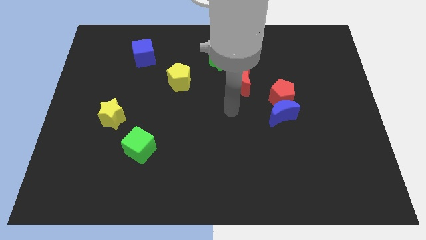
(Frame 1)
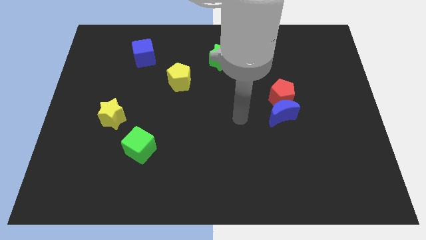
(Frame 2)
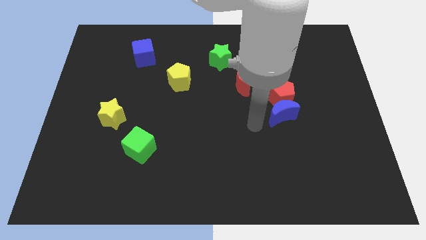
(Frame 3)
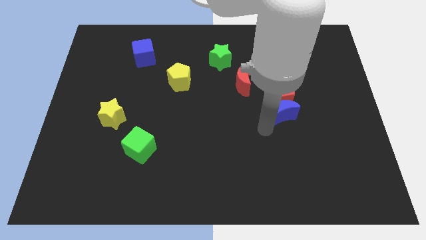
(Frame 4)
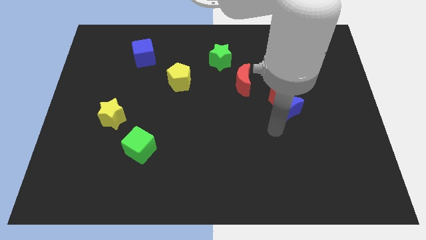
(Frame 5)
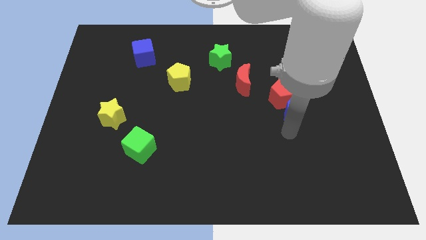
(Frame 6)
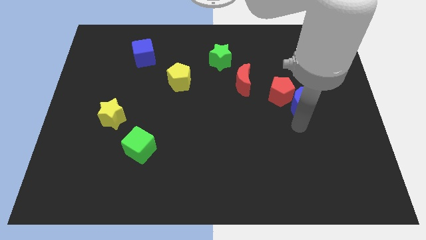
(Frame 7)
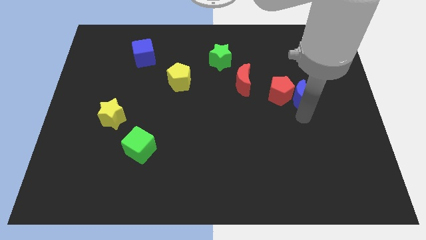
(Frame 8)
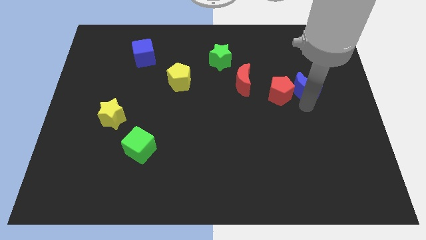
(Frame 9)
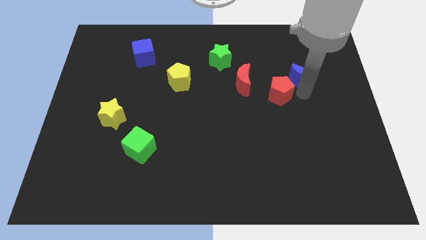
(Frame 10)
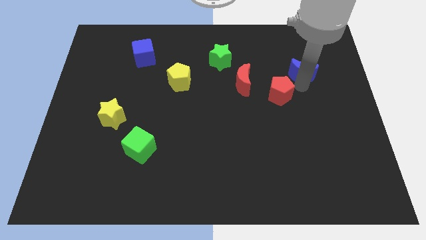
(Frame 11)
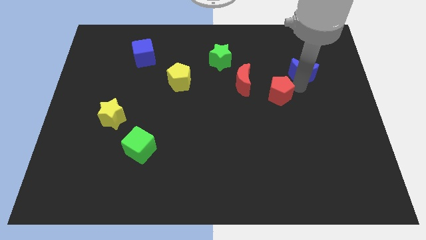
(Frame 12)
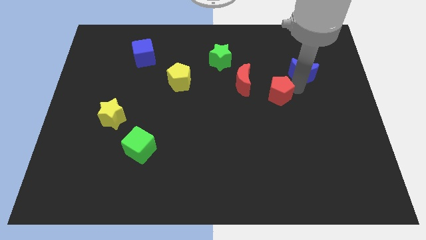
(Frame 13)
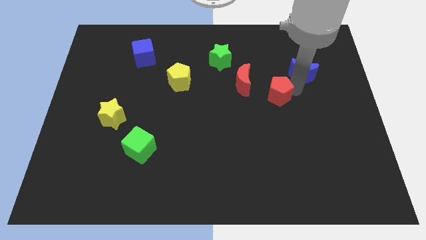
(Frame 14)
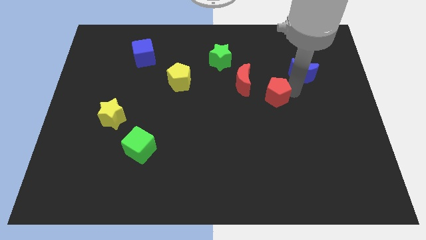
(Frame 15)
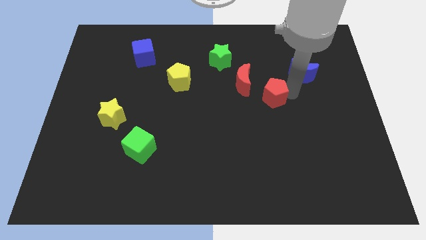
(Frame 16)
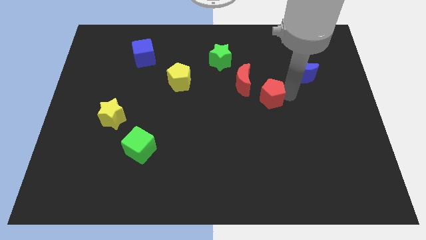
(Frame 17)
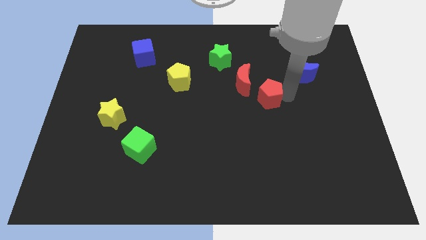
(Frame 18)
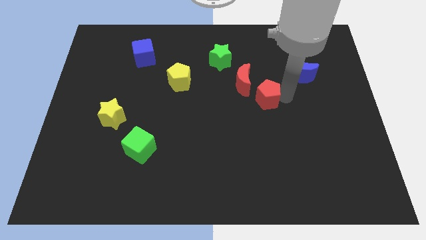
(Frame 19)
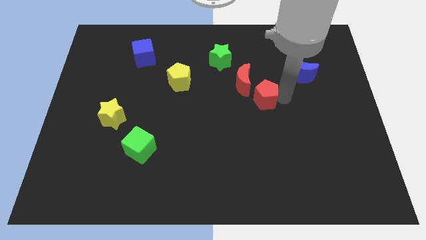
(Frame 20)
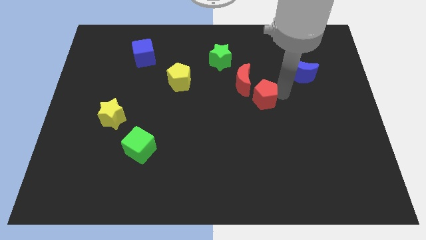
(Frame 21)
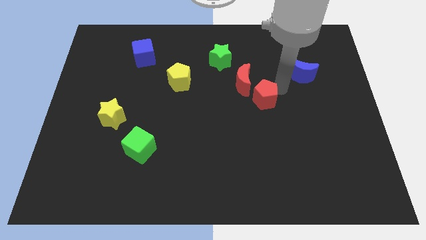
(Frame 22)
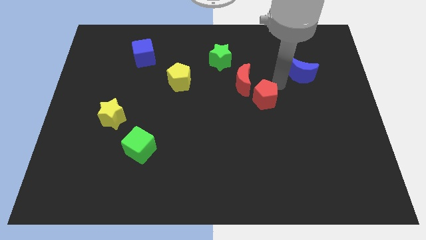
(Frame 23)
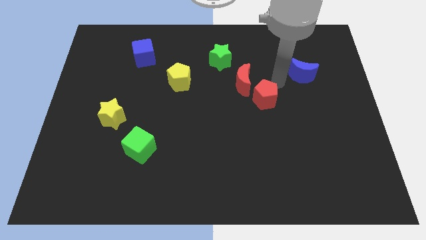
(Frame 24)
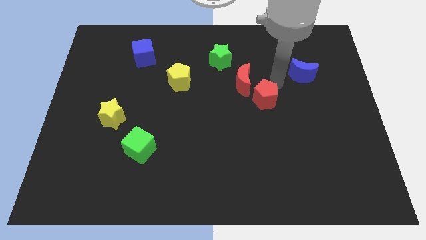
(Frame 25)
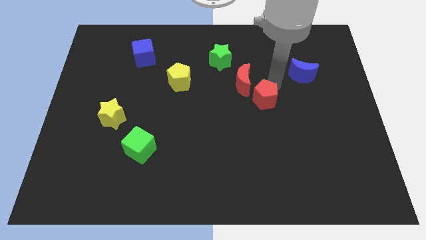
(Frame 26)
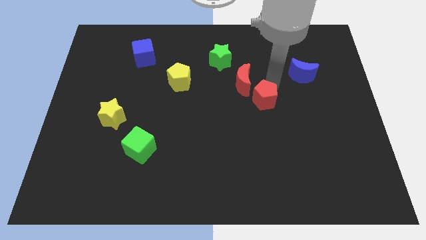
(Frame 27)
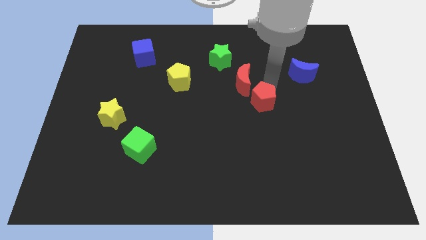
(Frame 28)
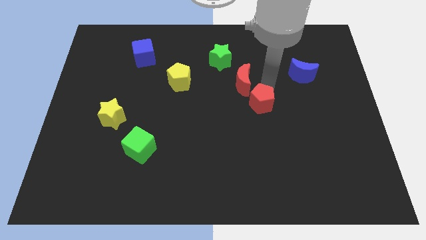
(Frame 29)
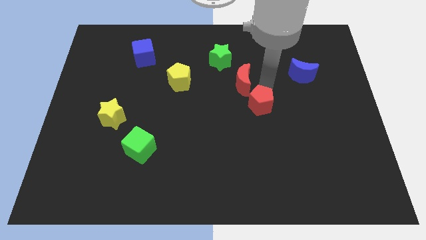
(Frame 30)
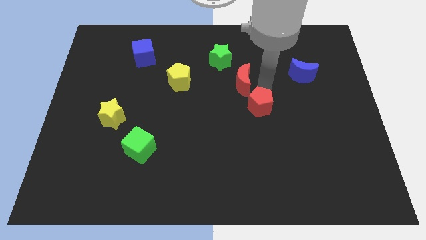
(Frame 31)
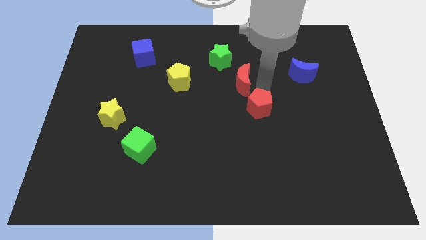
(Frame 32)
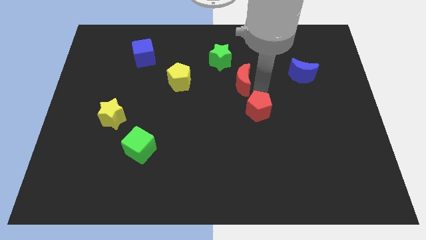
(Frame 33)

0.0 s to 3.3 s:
slide the red pentagon a little bit diagonally down and to the left

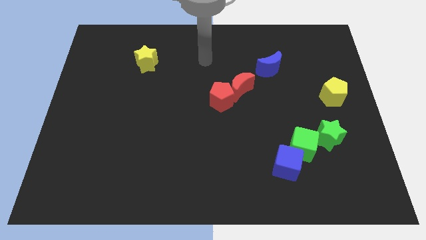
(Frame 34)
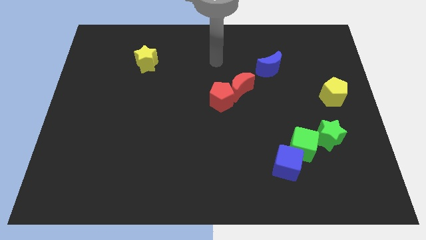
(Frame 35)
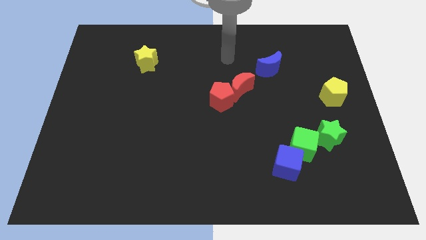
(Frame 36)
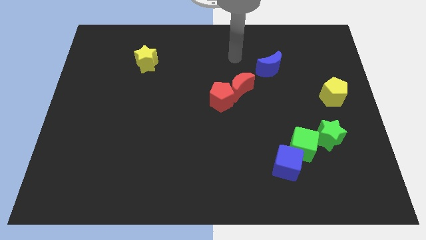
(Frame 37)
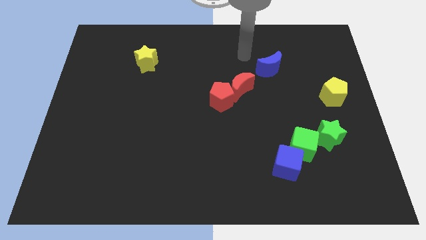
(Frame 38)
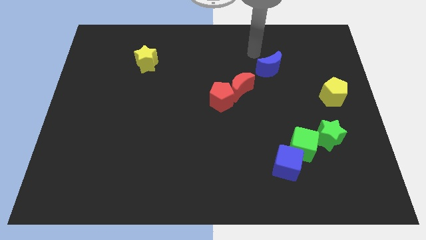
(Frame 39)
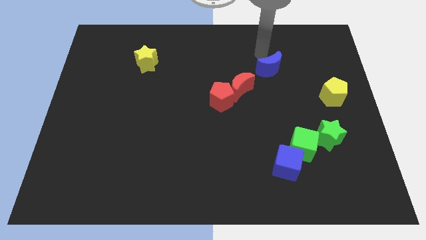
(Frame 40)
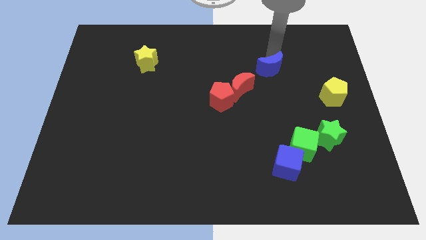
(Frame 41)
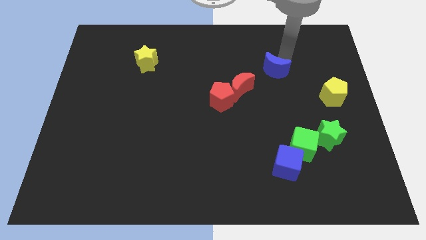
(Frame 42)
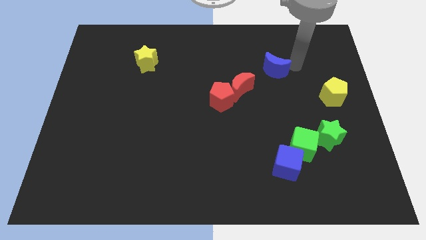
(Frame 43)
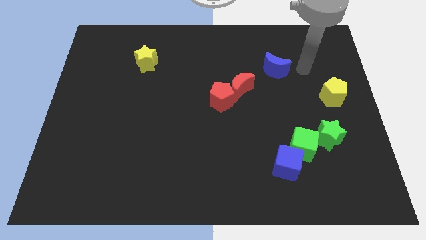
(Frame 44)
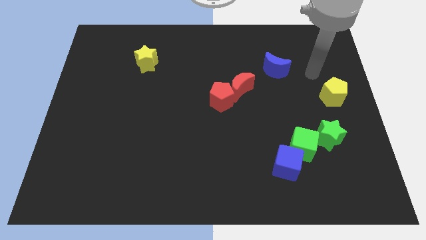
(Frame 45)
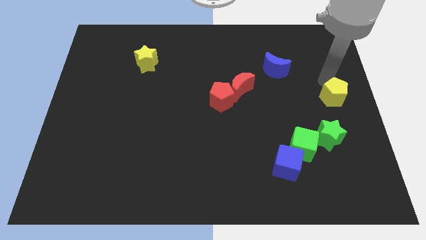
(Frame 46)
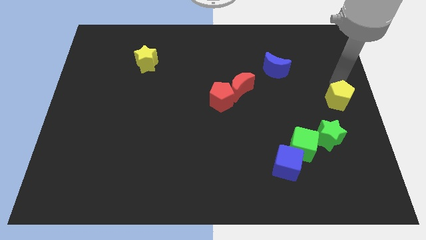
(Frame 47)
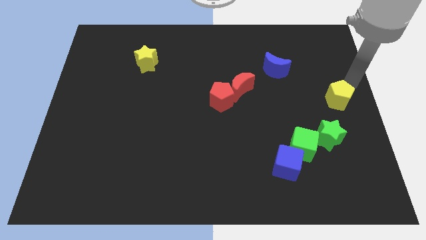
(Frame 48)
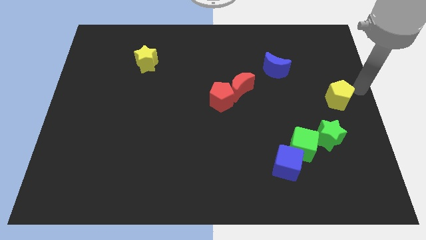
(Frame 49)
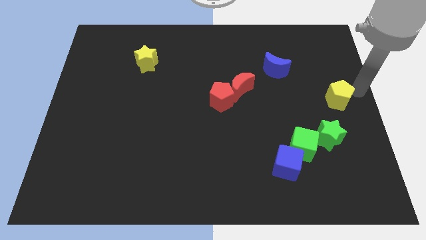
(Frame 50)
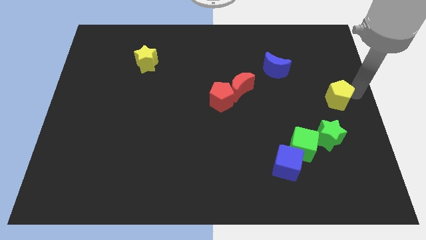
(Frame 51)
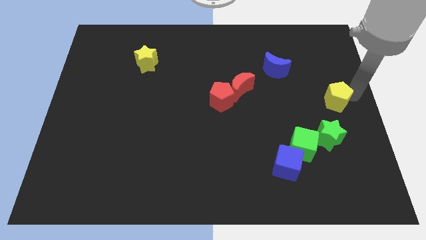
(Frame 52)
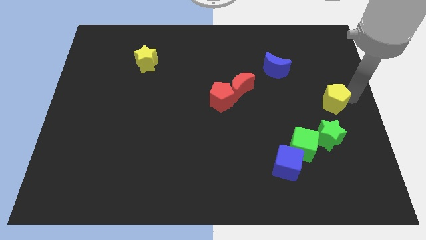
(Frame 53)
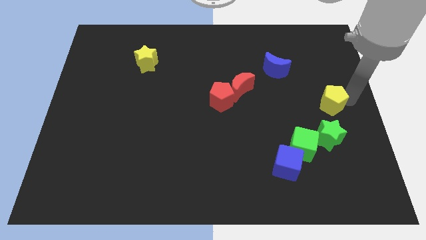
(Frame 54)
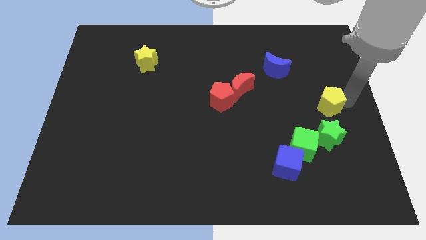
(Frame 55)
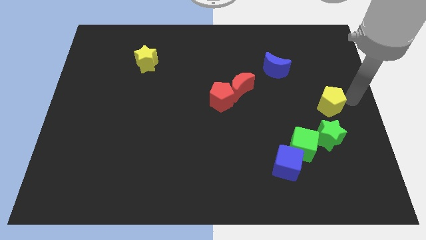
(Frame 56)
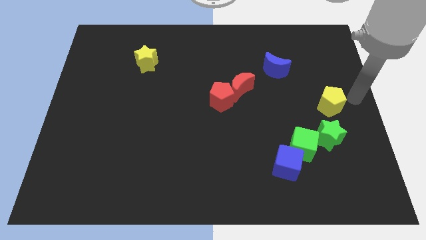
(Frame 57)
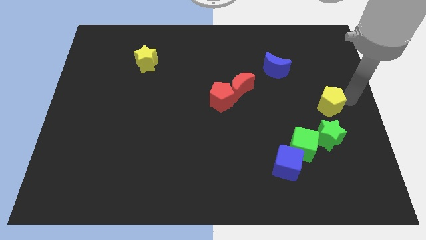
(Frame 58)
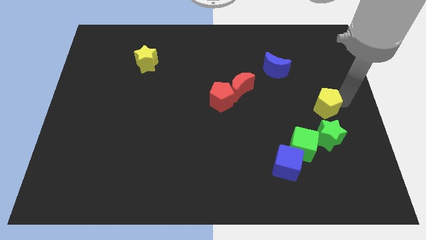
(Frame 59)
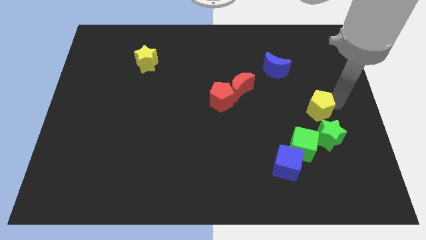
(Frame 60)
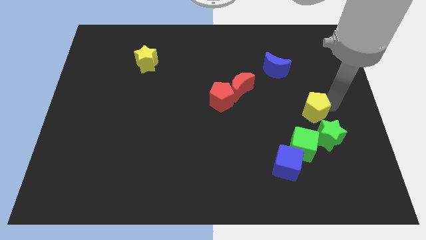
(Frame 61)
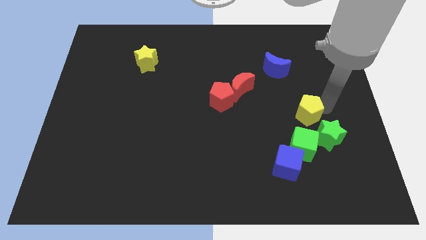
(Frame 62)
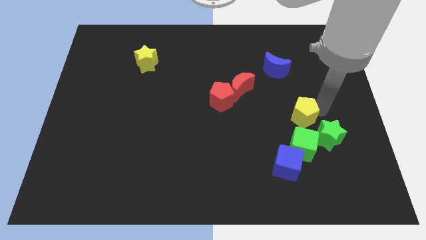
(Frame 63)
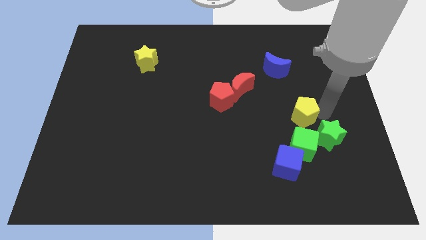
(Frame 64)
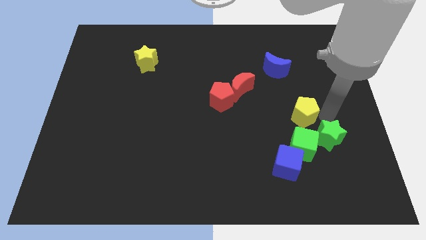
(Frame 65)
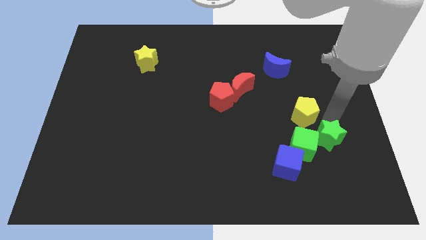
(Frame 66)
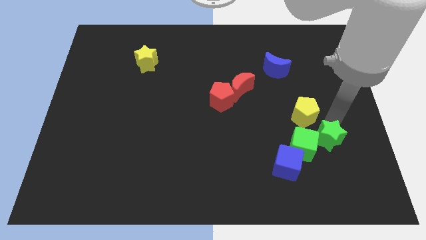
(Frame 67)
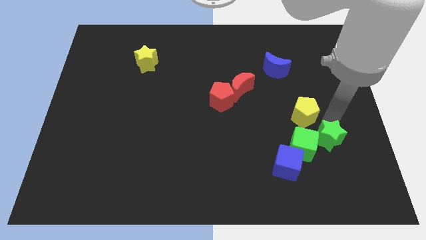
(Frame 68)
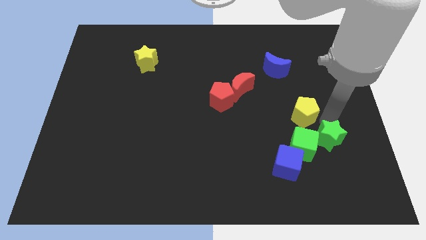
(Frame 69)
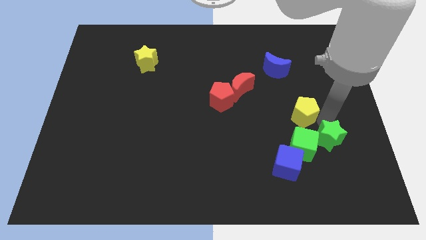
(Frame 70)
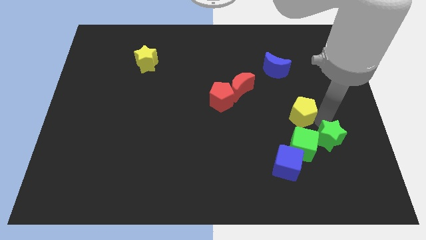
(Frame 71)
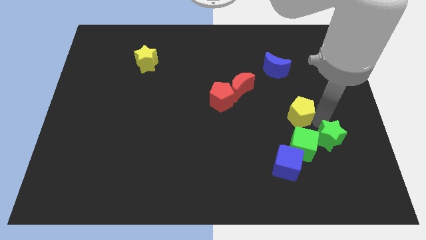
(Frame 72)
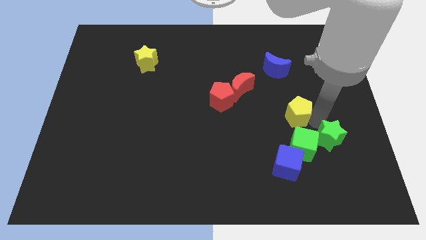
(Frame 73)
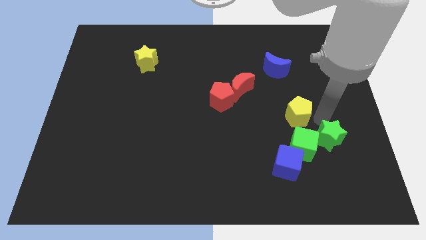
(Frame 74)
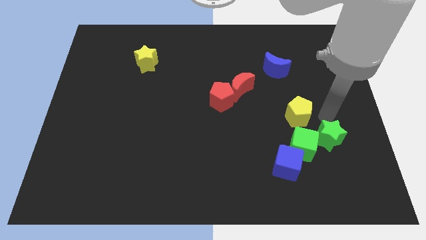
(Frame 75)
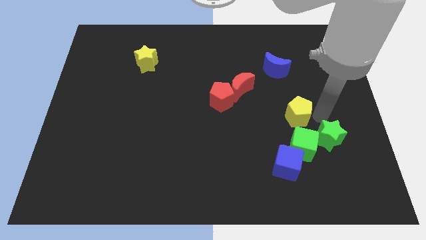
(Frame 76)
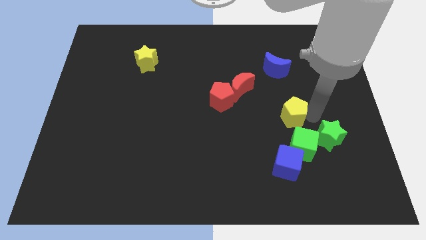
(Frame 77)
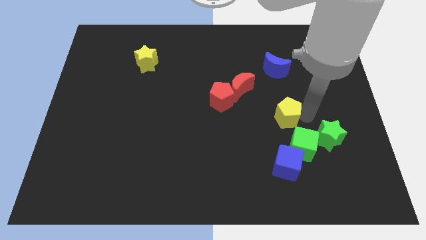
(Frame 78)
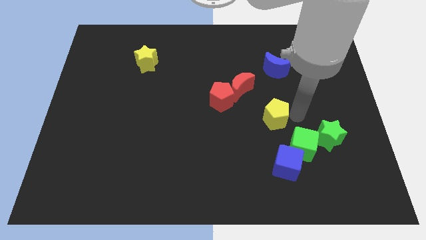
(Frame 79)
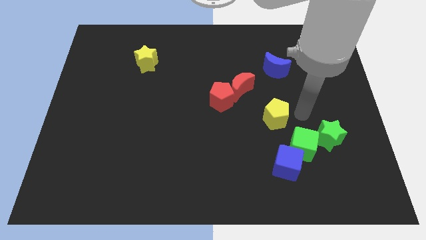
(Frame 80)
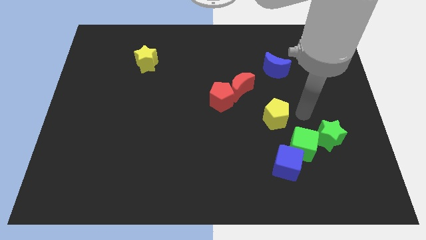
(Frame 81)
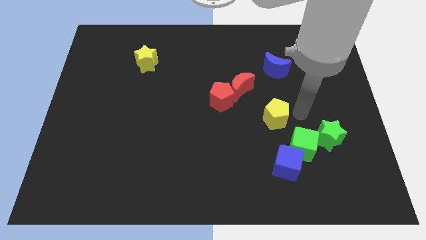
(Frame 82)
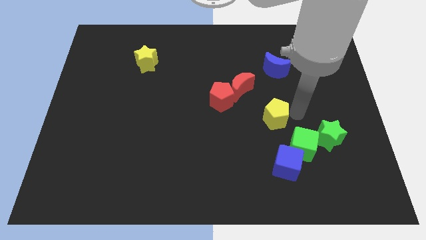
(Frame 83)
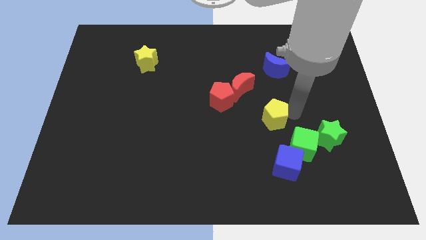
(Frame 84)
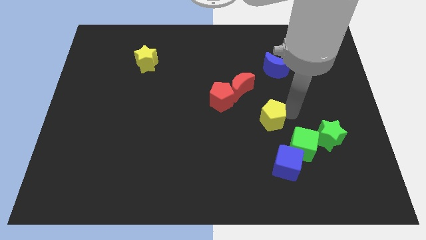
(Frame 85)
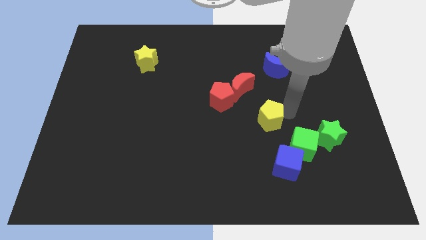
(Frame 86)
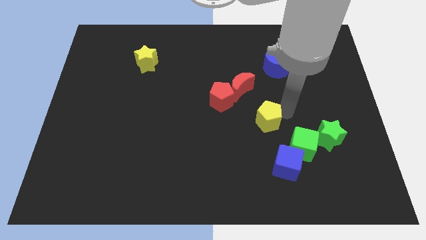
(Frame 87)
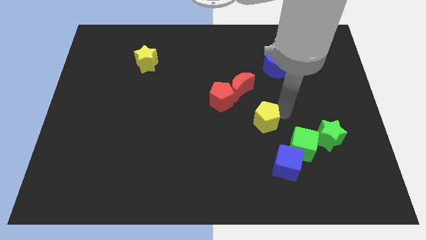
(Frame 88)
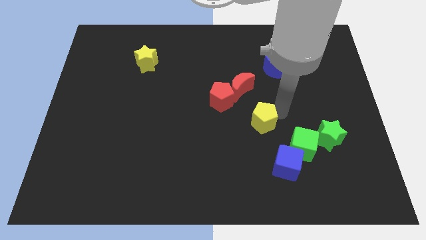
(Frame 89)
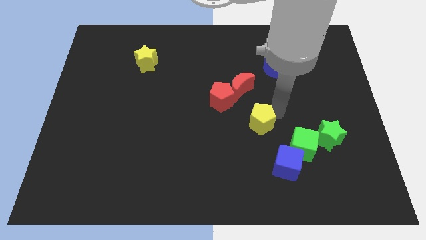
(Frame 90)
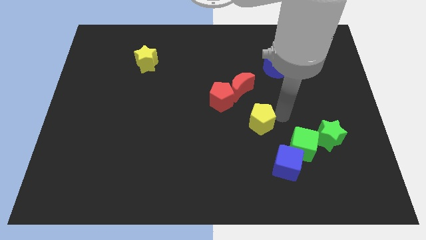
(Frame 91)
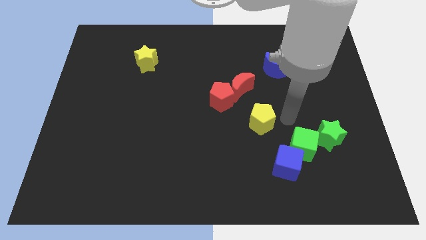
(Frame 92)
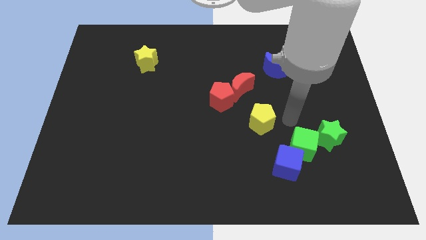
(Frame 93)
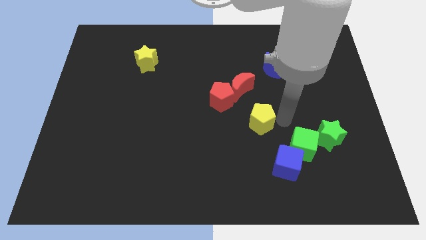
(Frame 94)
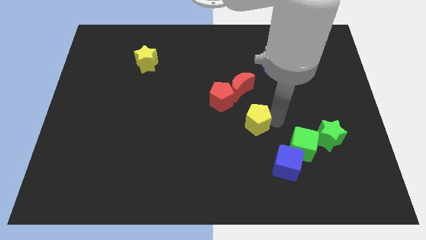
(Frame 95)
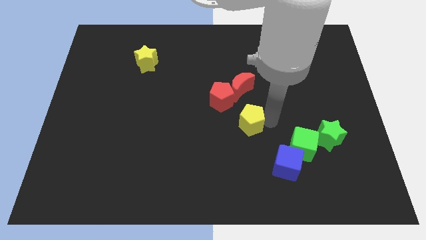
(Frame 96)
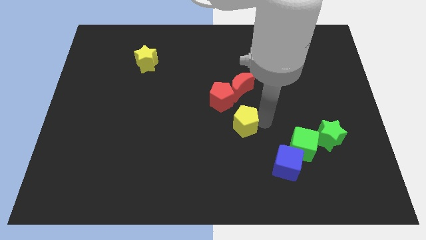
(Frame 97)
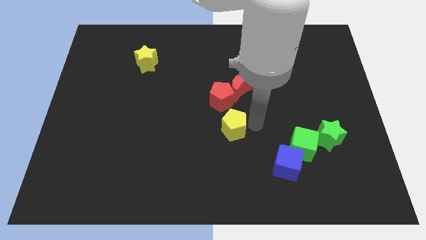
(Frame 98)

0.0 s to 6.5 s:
push the yellow pentagon left
